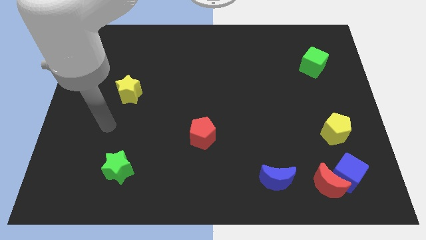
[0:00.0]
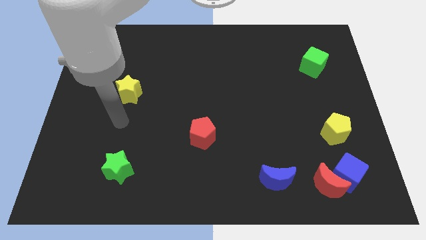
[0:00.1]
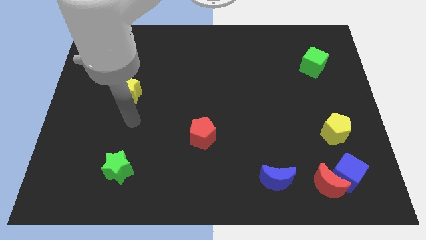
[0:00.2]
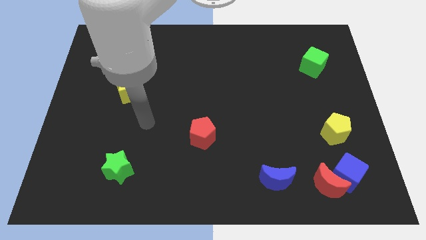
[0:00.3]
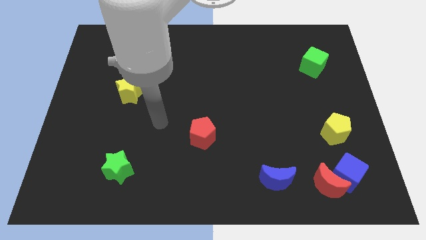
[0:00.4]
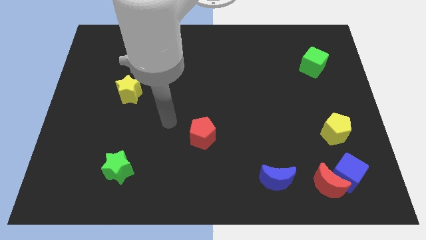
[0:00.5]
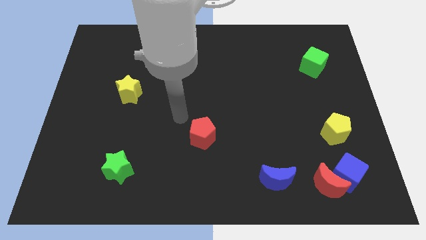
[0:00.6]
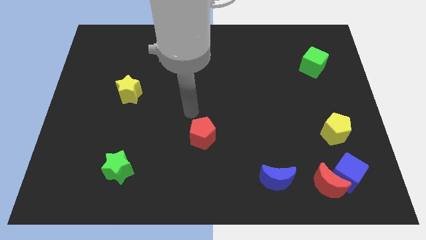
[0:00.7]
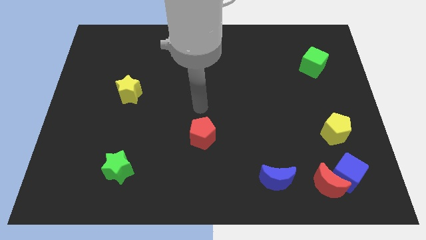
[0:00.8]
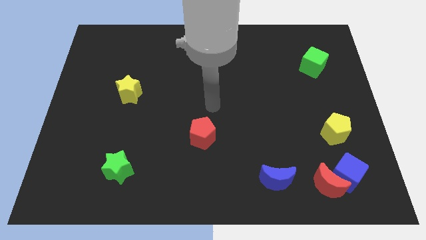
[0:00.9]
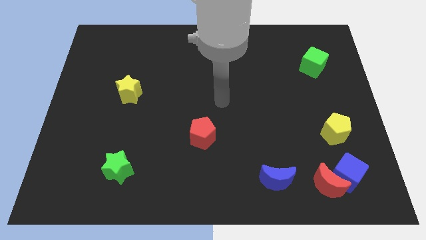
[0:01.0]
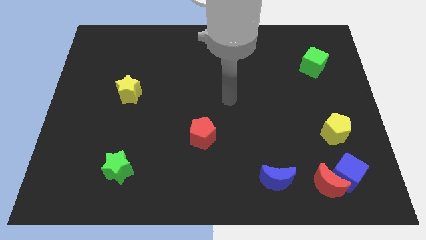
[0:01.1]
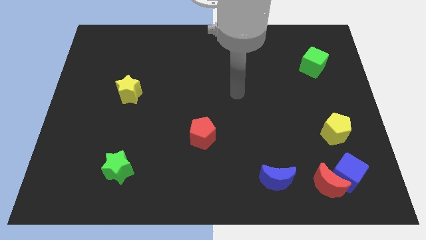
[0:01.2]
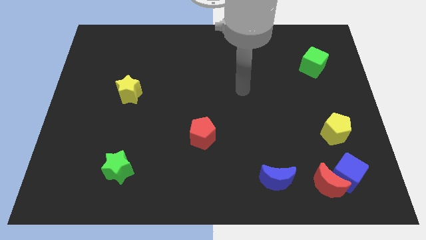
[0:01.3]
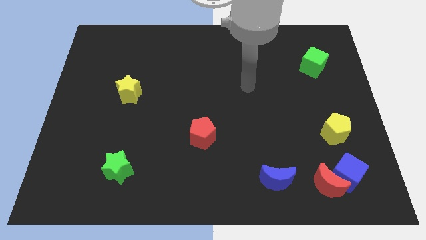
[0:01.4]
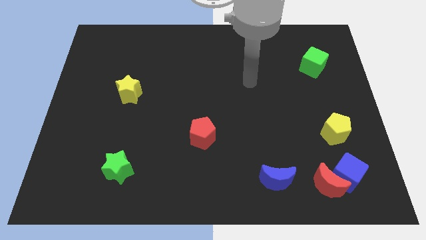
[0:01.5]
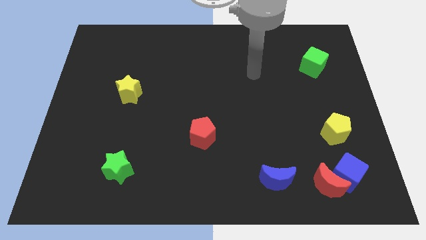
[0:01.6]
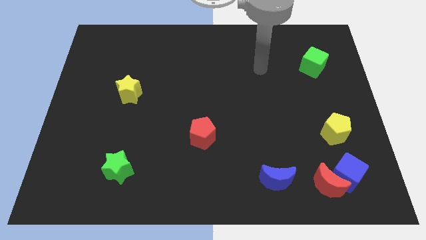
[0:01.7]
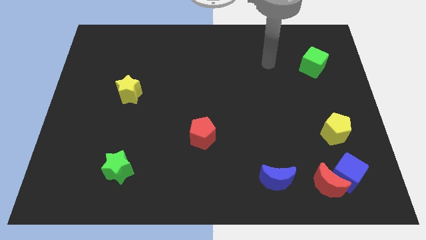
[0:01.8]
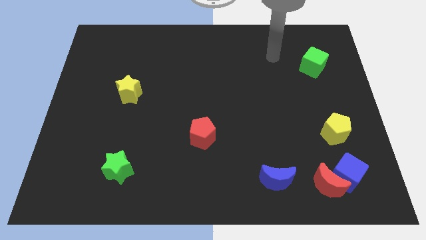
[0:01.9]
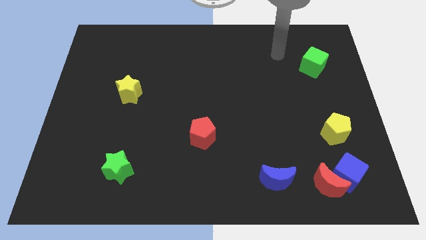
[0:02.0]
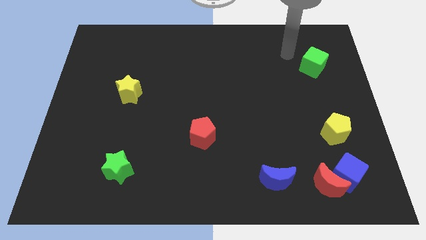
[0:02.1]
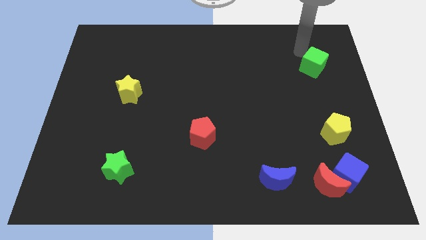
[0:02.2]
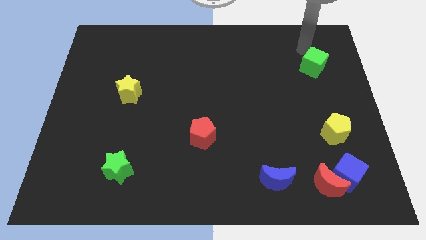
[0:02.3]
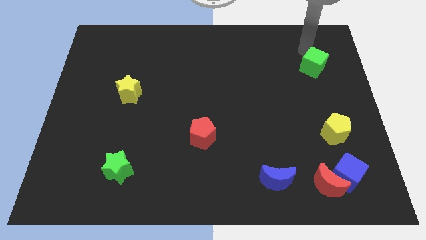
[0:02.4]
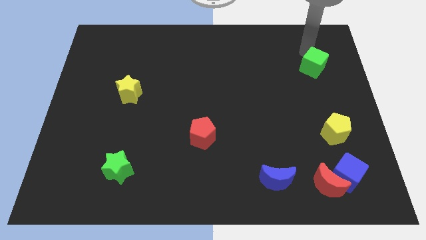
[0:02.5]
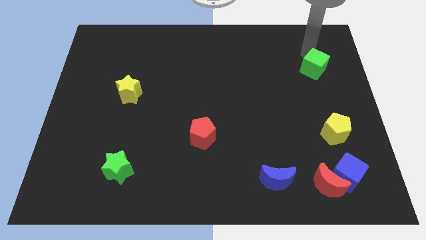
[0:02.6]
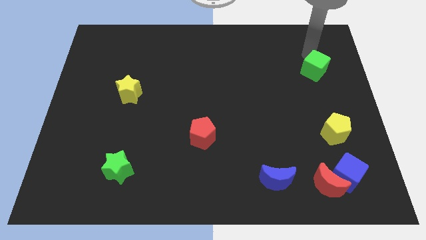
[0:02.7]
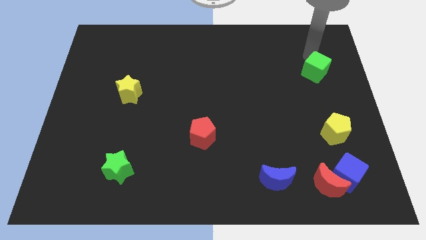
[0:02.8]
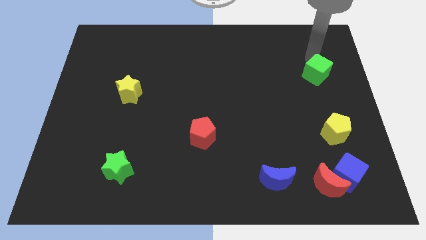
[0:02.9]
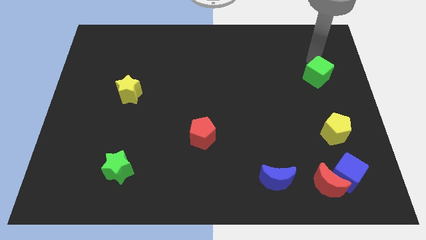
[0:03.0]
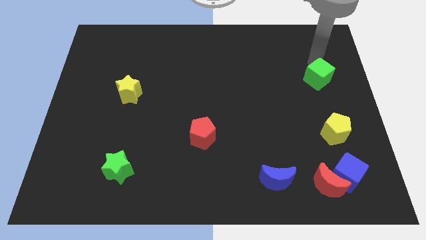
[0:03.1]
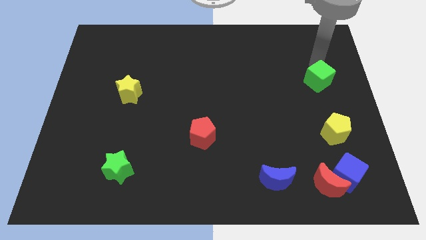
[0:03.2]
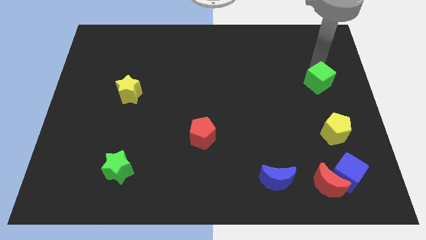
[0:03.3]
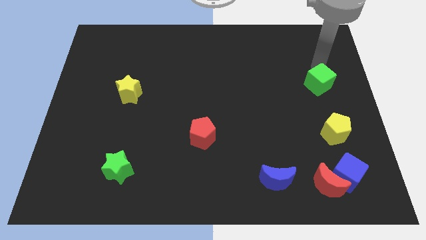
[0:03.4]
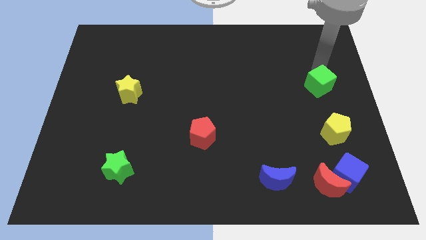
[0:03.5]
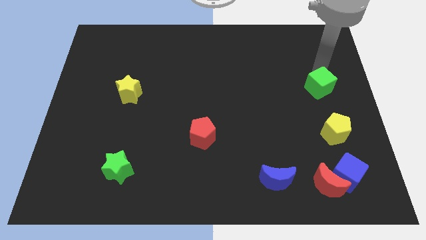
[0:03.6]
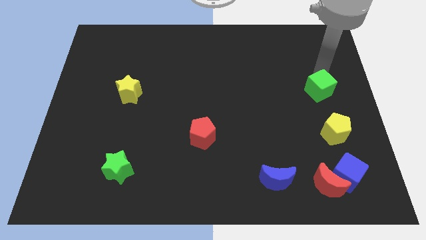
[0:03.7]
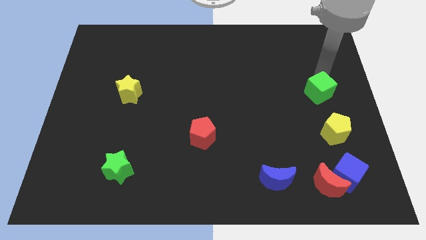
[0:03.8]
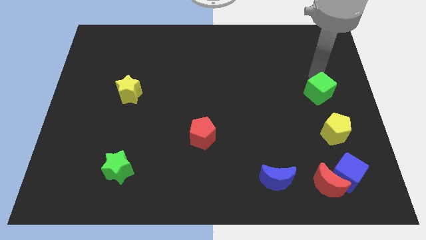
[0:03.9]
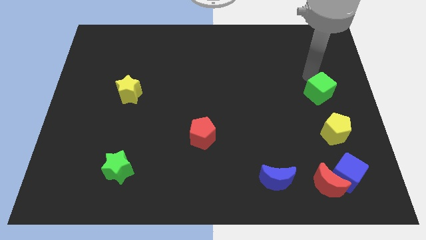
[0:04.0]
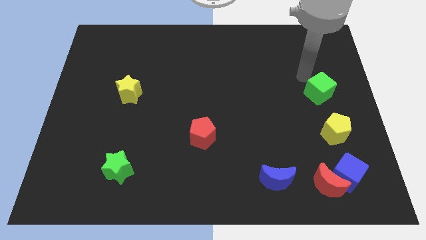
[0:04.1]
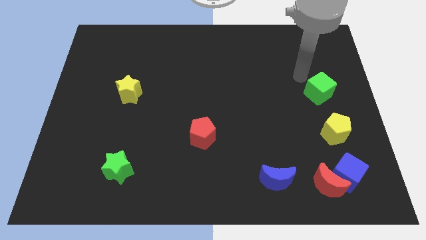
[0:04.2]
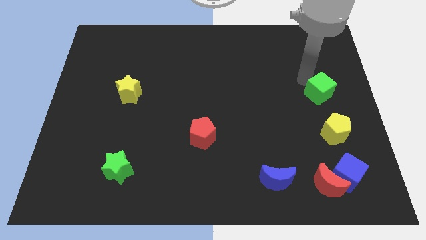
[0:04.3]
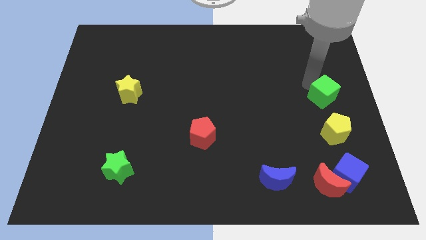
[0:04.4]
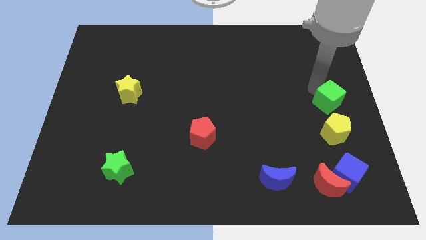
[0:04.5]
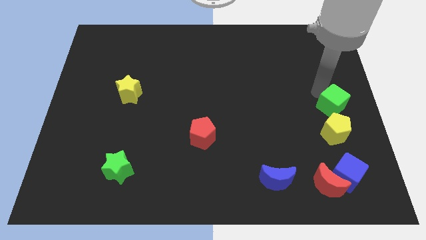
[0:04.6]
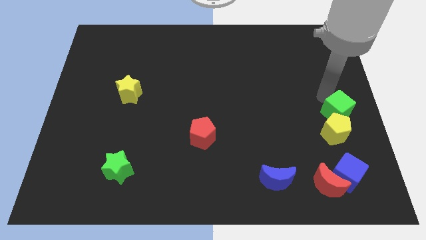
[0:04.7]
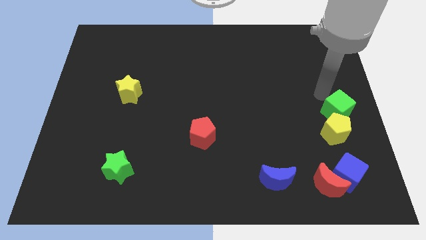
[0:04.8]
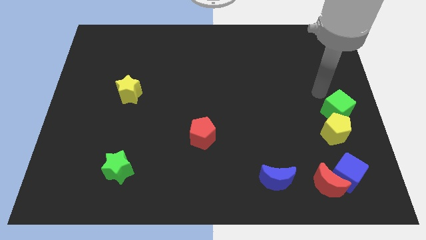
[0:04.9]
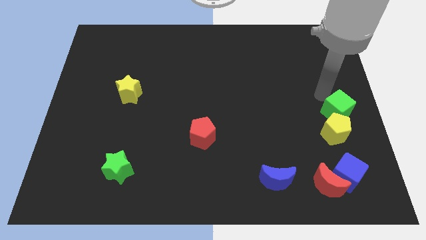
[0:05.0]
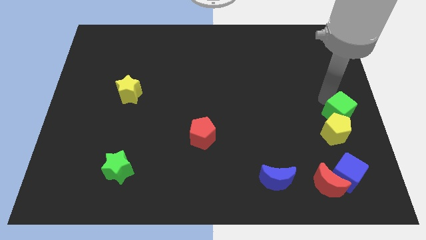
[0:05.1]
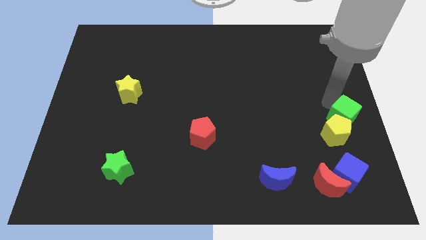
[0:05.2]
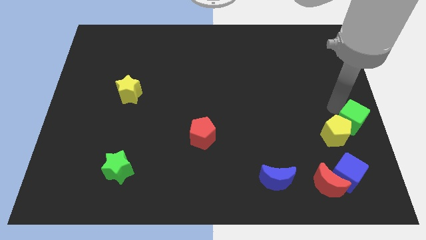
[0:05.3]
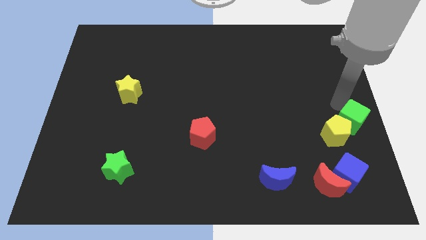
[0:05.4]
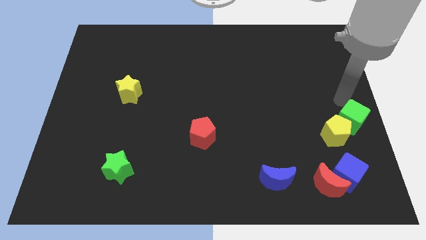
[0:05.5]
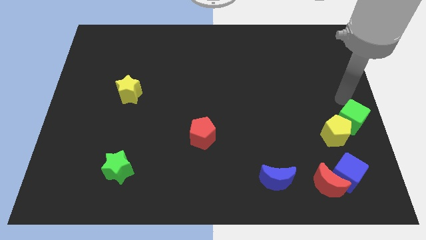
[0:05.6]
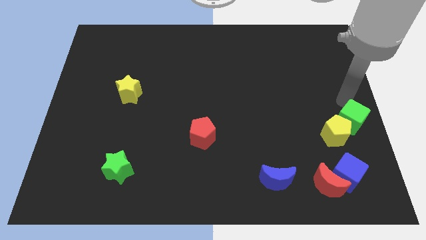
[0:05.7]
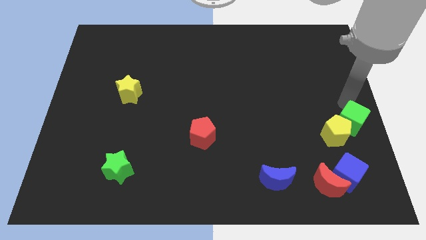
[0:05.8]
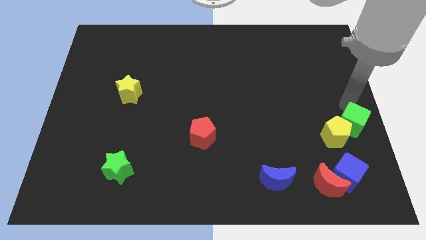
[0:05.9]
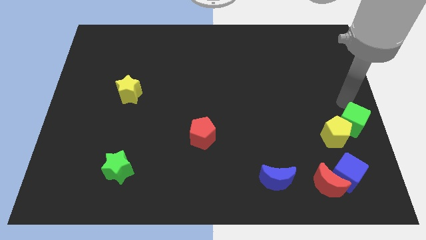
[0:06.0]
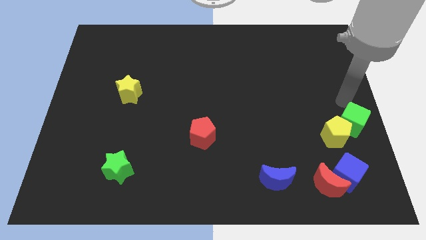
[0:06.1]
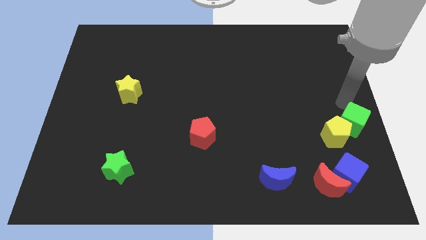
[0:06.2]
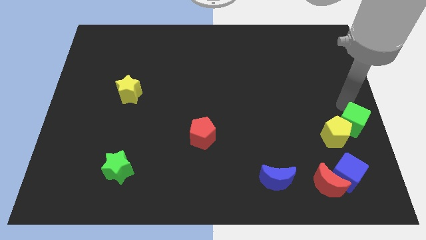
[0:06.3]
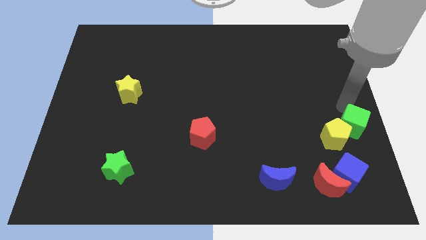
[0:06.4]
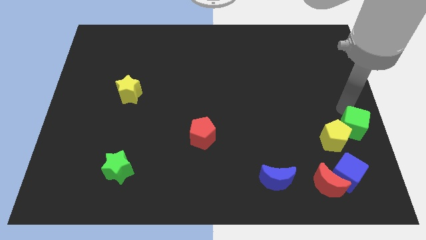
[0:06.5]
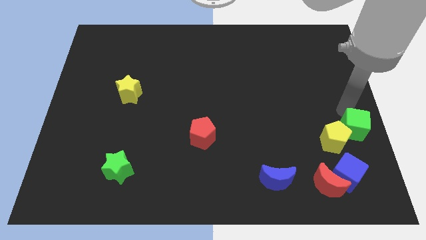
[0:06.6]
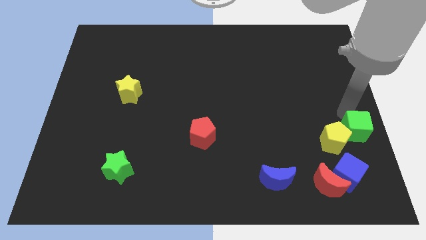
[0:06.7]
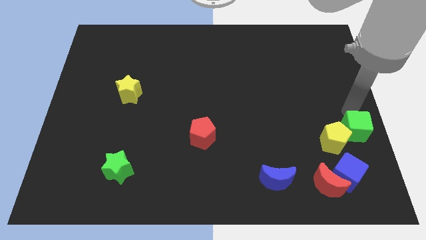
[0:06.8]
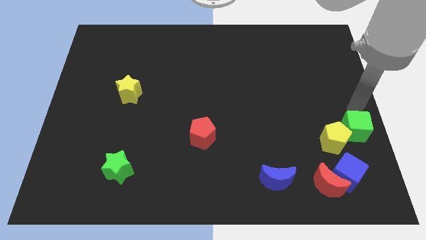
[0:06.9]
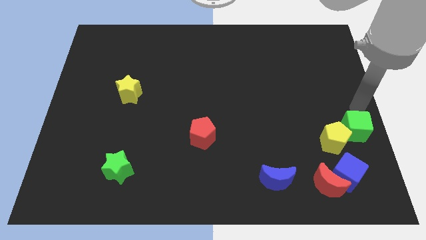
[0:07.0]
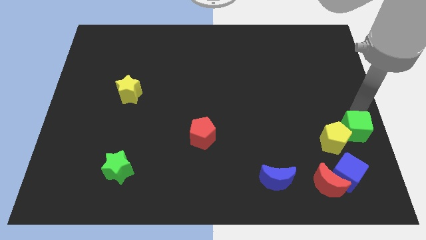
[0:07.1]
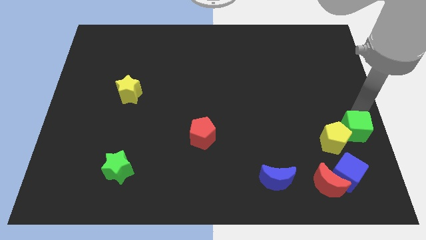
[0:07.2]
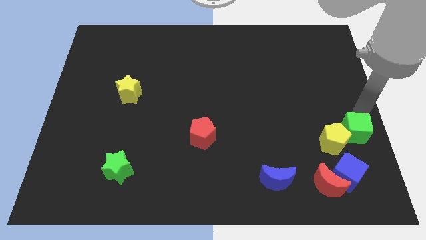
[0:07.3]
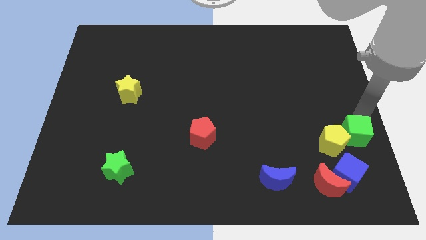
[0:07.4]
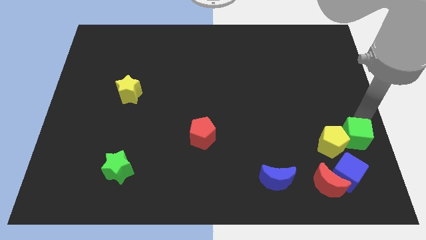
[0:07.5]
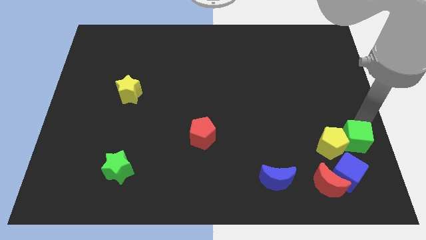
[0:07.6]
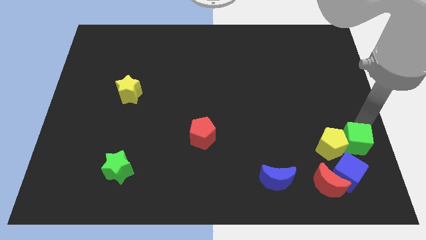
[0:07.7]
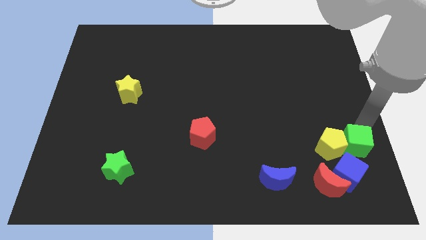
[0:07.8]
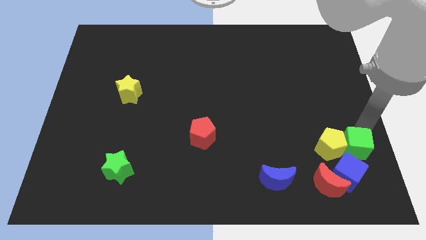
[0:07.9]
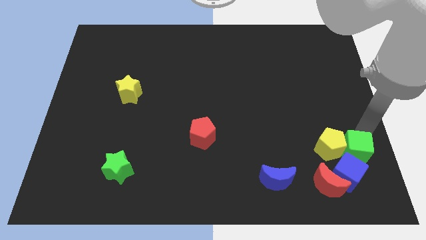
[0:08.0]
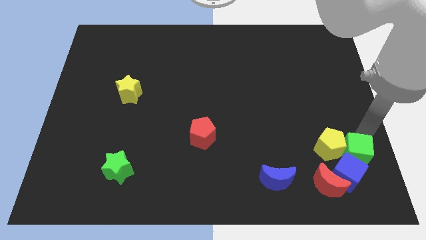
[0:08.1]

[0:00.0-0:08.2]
move the green cube close to the blue cube
